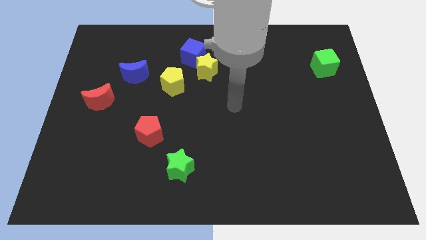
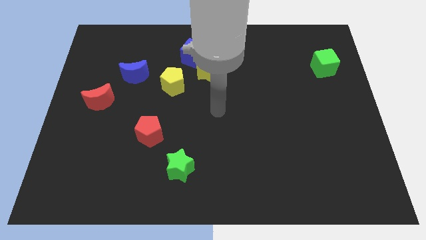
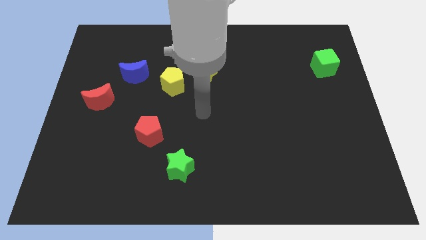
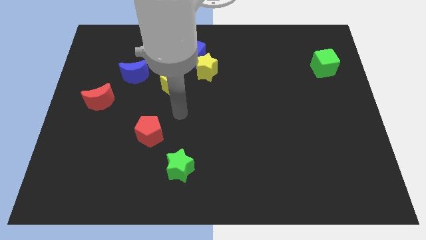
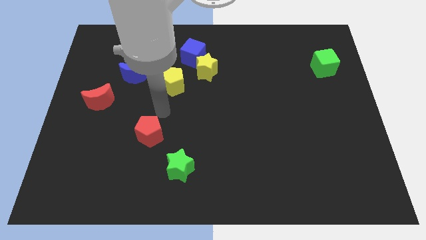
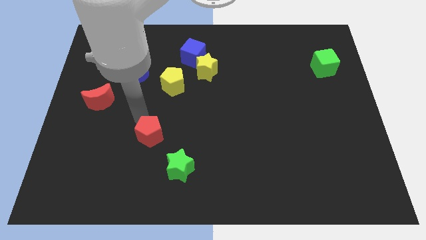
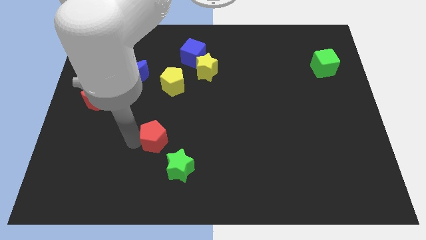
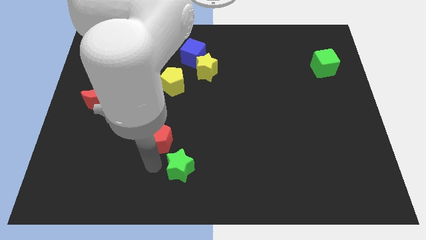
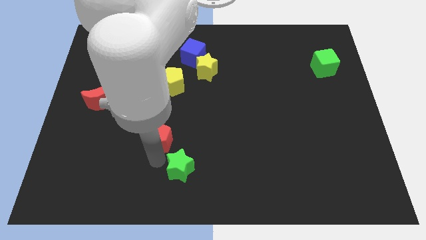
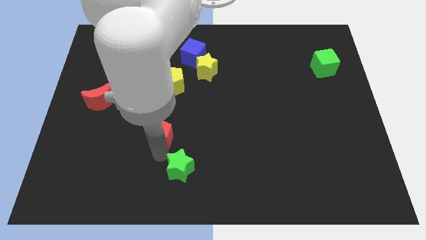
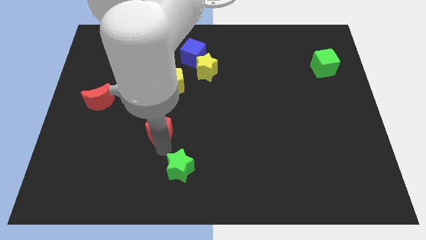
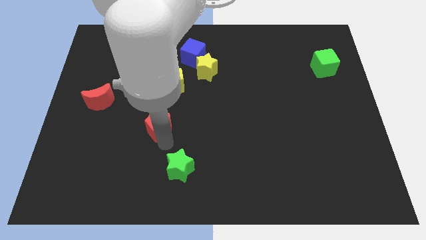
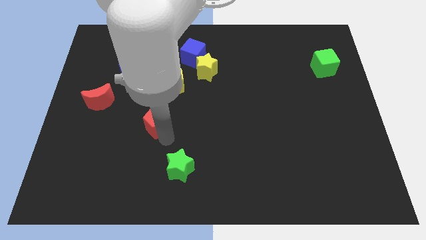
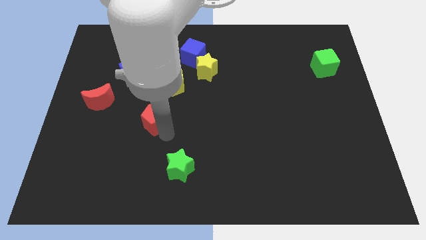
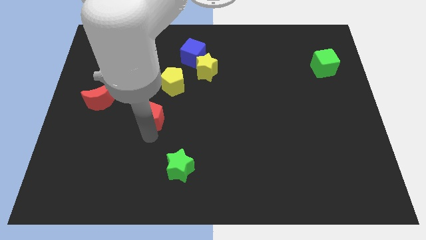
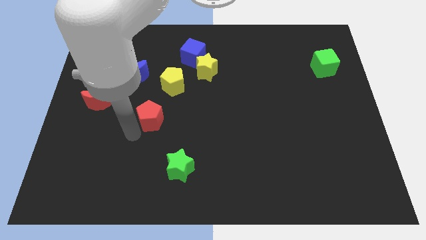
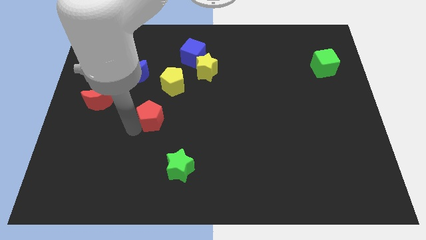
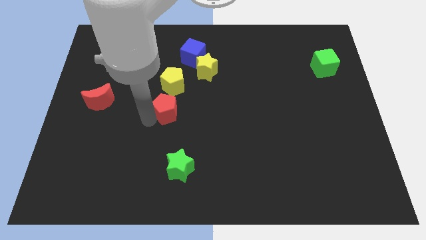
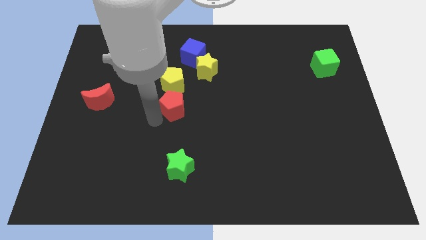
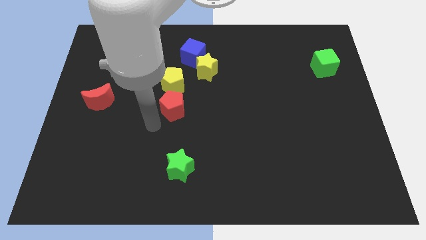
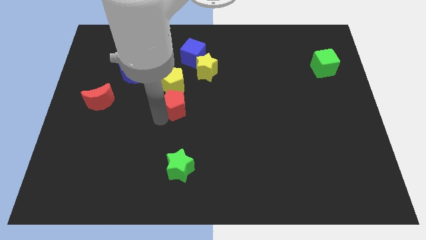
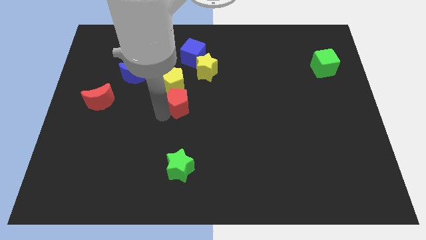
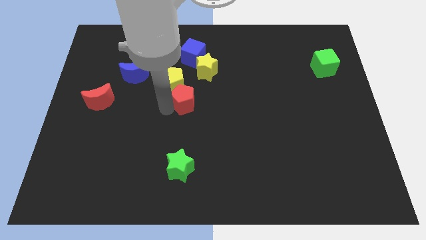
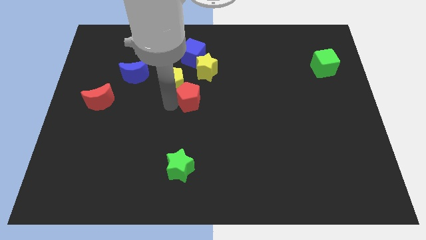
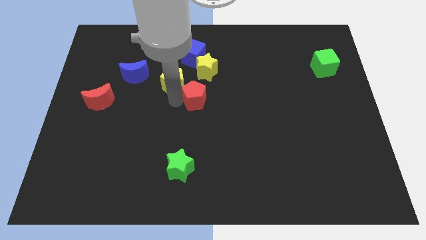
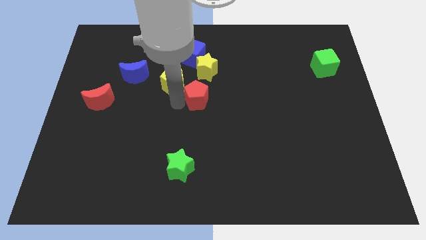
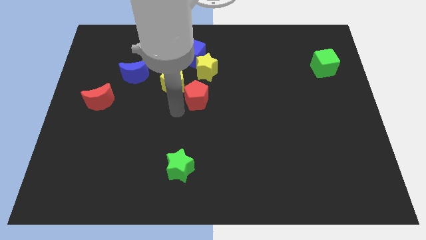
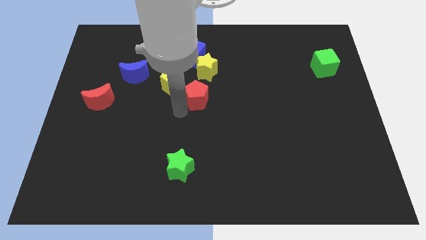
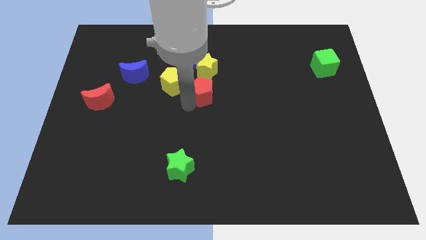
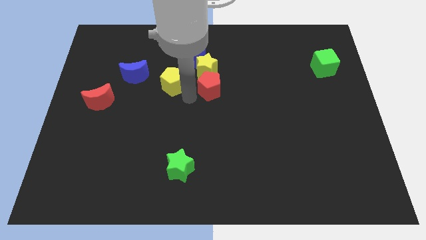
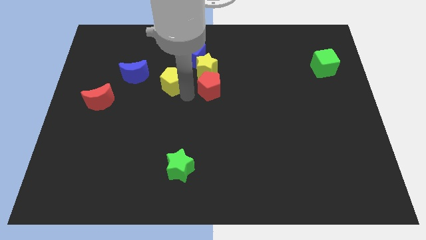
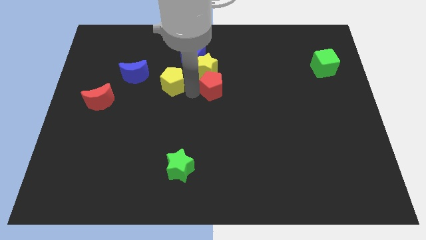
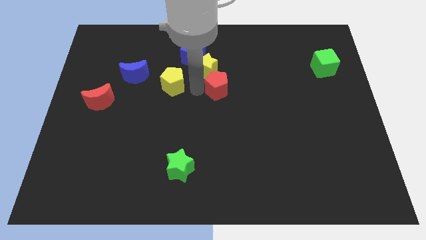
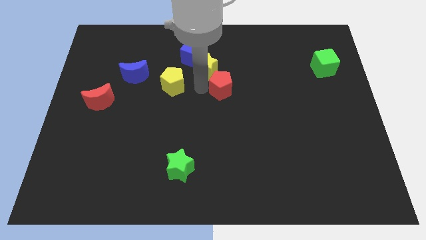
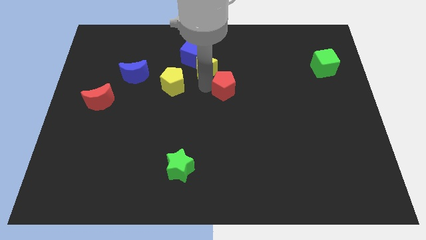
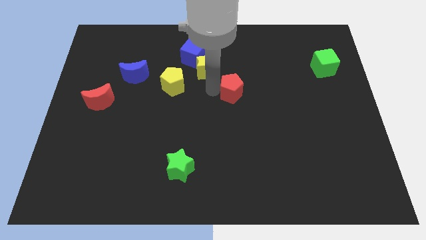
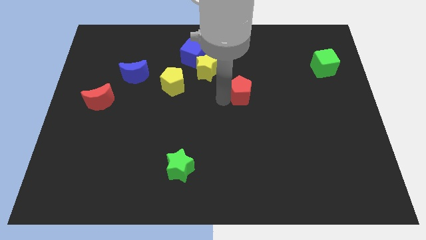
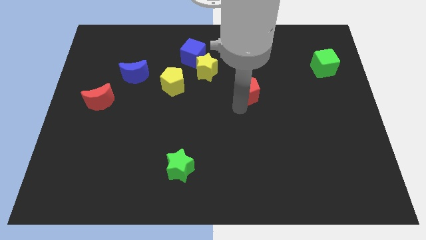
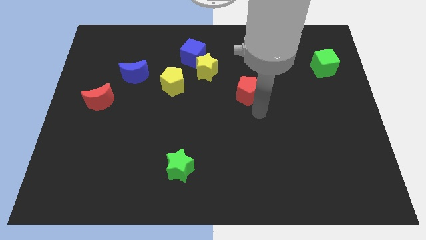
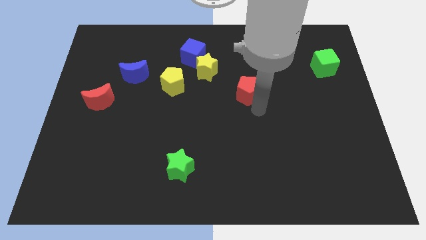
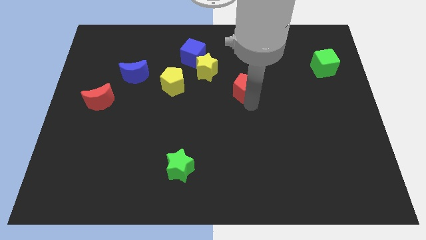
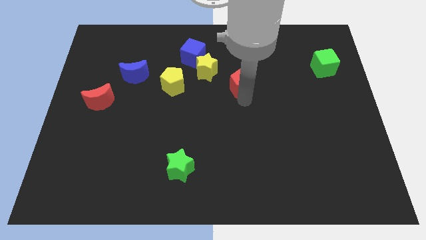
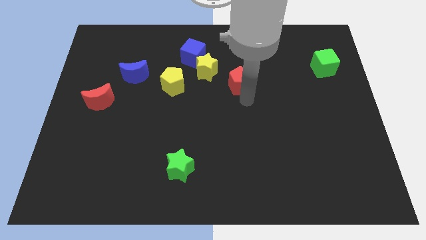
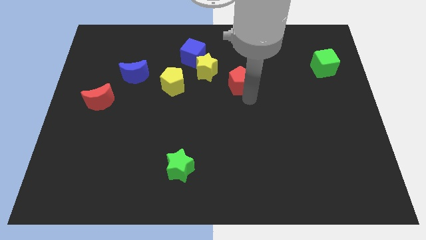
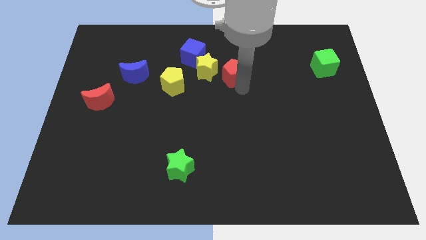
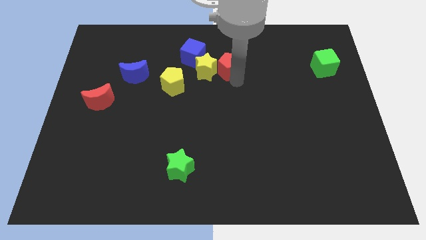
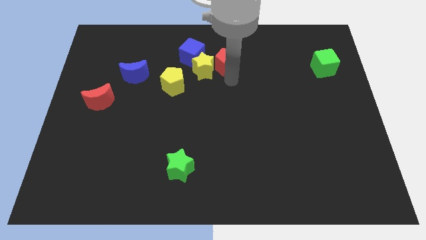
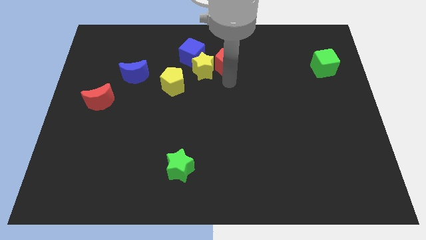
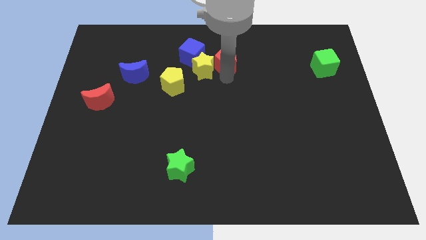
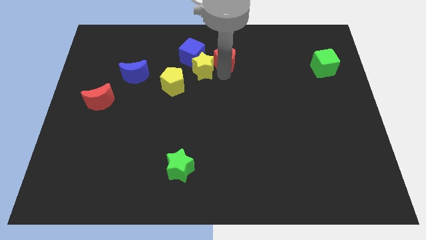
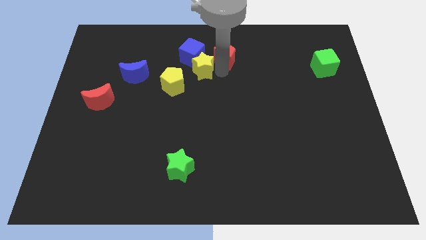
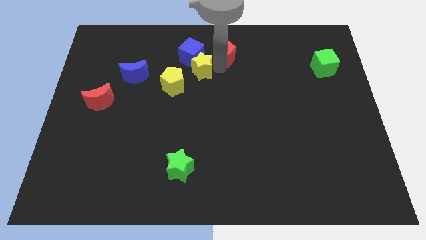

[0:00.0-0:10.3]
put the red pentagon to the top side
